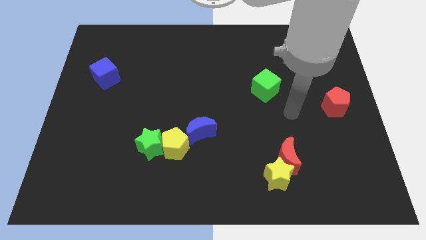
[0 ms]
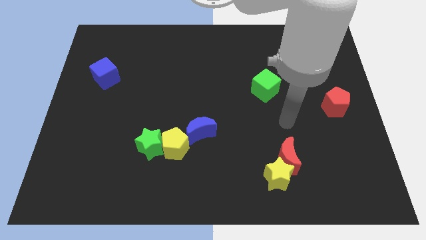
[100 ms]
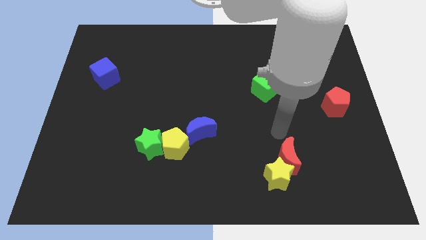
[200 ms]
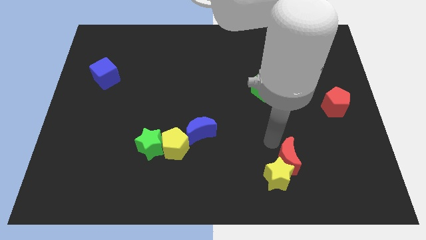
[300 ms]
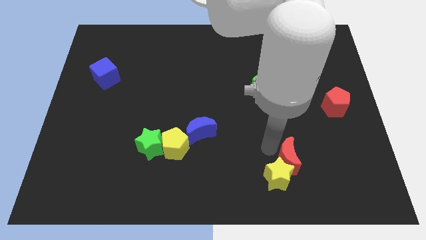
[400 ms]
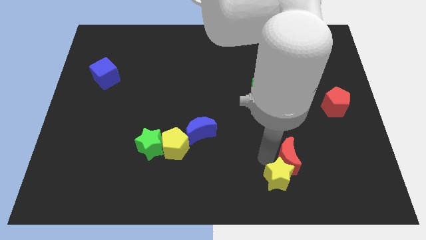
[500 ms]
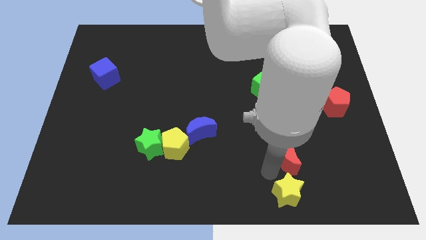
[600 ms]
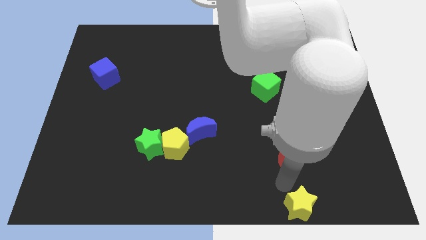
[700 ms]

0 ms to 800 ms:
move the red moon away from the yellow star

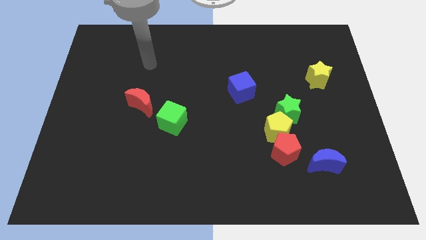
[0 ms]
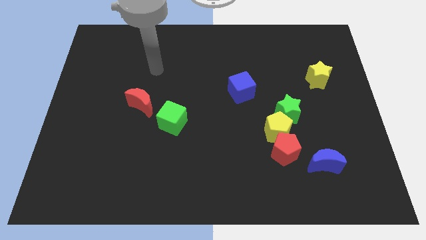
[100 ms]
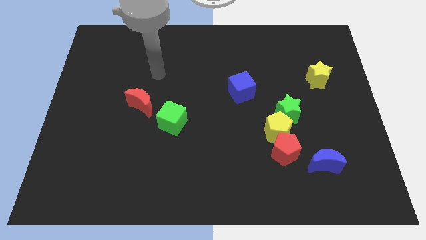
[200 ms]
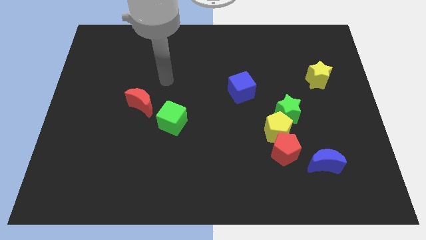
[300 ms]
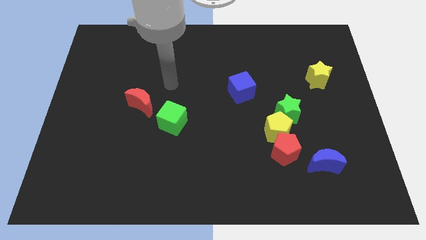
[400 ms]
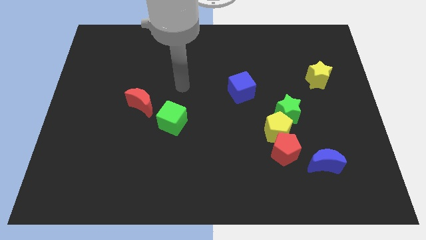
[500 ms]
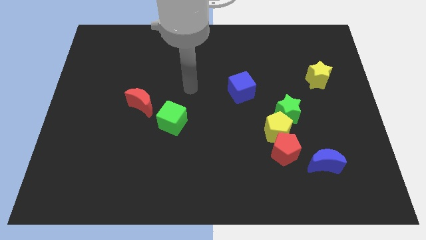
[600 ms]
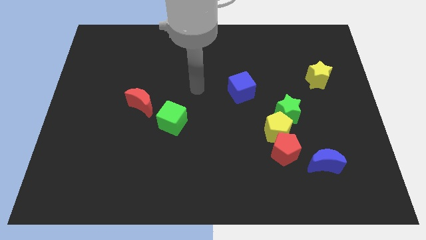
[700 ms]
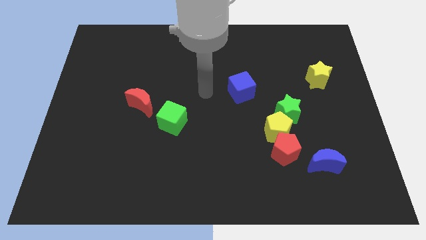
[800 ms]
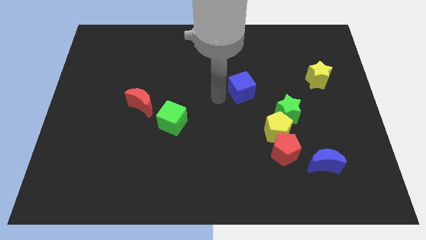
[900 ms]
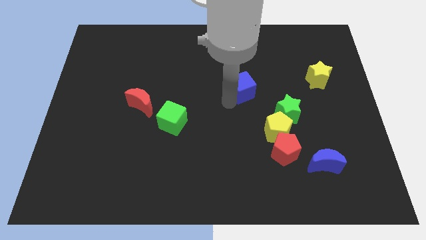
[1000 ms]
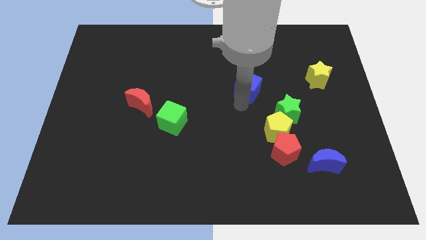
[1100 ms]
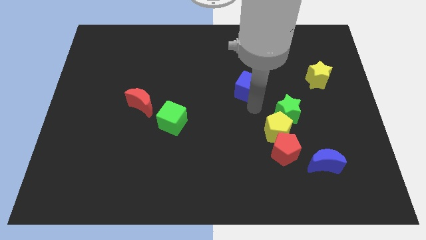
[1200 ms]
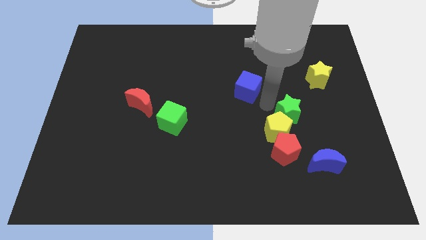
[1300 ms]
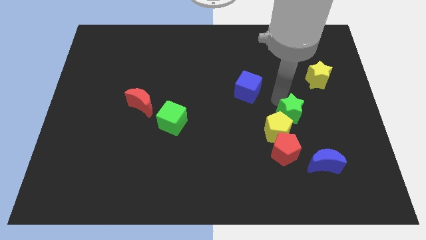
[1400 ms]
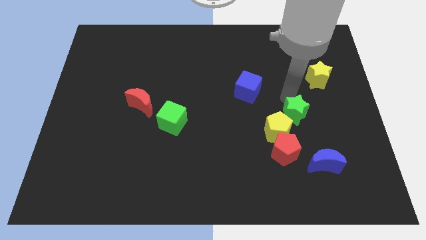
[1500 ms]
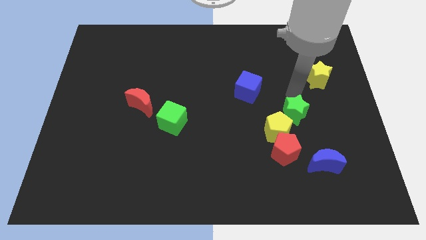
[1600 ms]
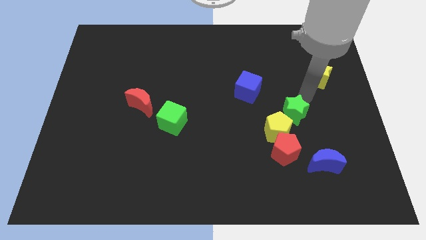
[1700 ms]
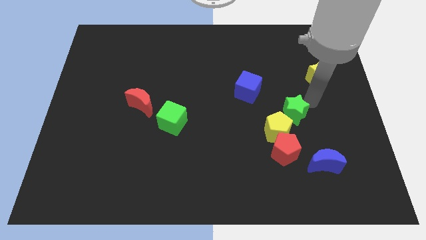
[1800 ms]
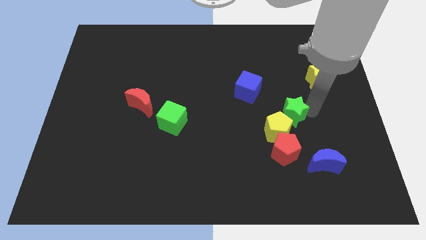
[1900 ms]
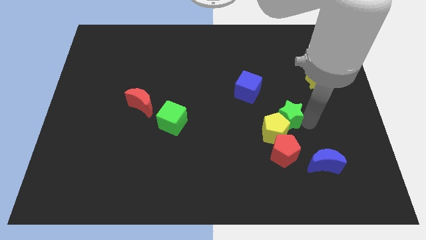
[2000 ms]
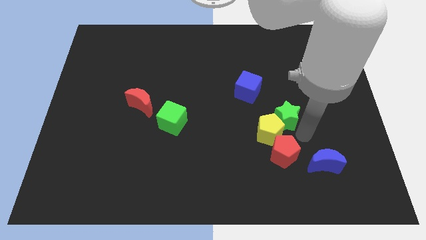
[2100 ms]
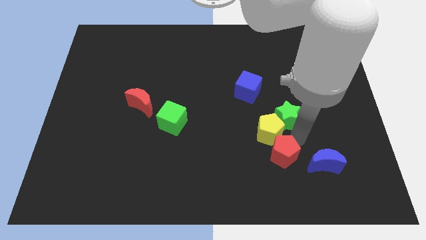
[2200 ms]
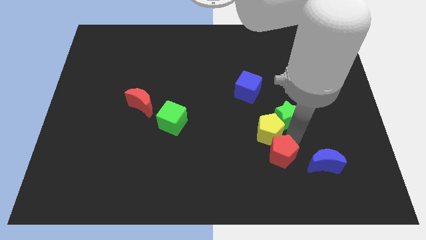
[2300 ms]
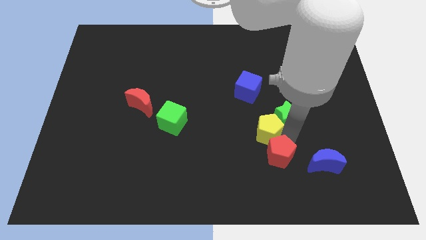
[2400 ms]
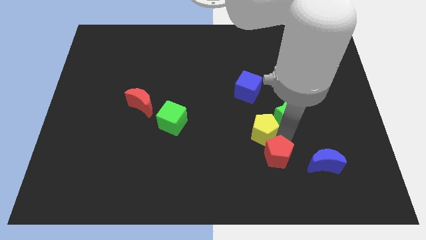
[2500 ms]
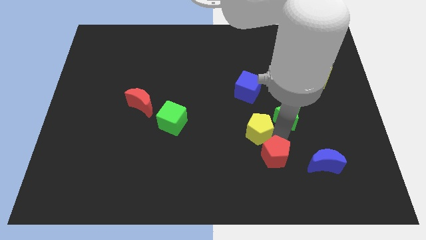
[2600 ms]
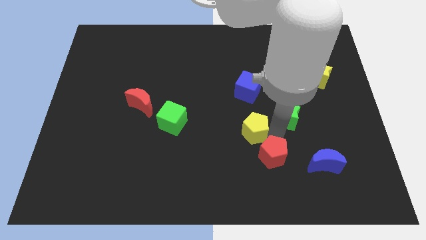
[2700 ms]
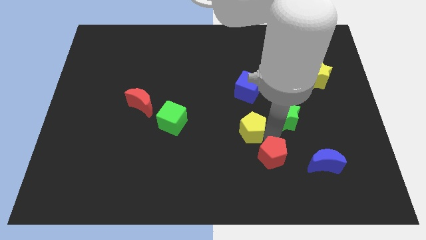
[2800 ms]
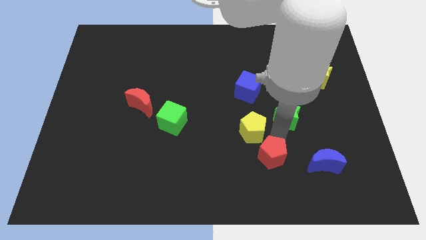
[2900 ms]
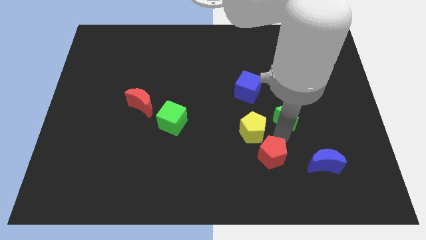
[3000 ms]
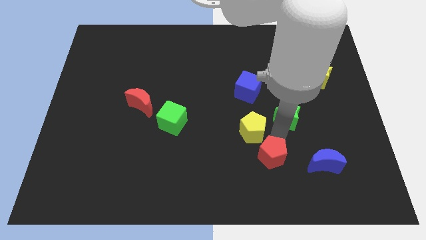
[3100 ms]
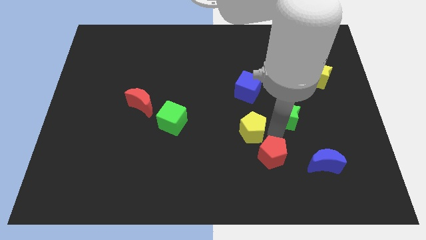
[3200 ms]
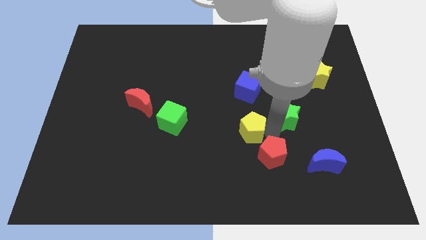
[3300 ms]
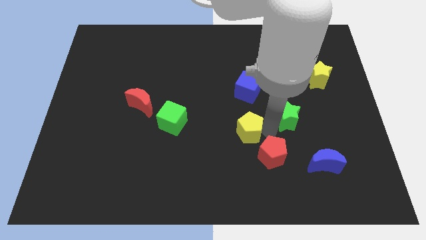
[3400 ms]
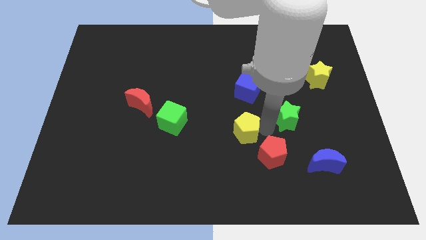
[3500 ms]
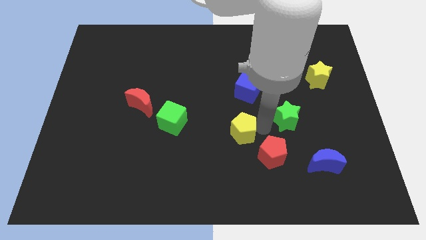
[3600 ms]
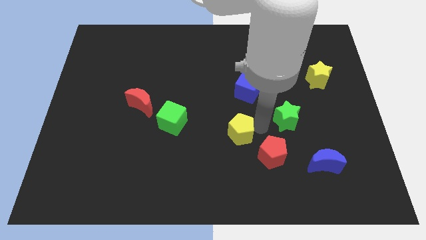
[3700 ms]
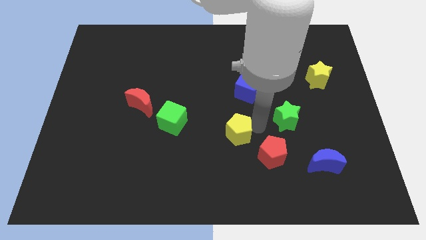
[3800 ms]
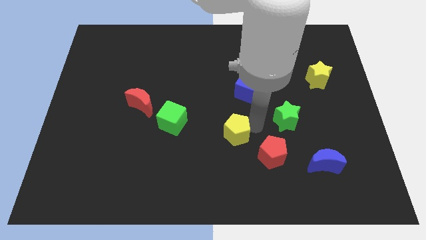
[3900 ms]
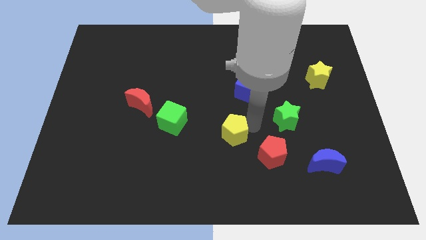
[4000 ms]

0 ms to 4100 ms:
move the yellow pentagon away from the red pentagon and green star

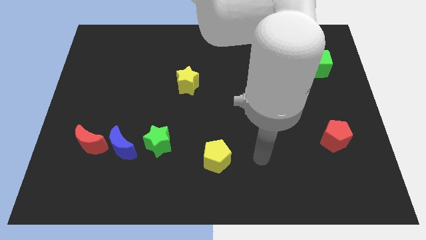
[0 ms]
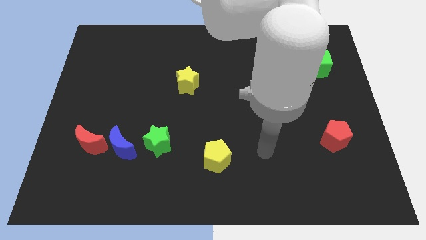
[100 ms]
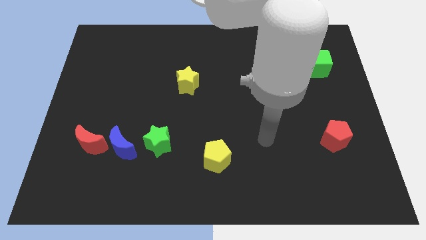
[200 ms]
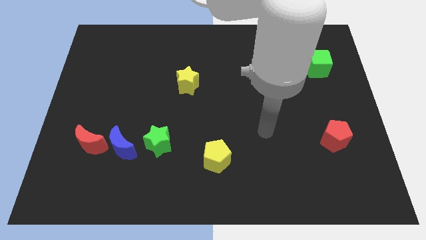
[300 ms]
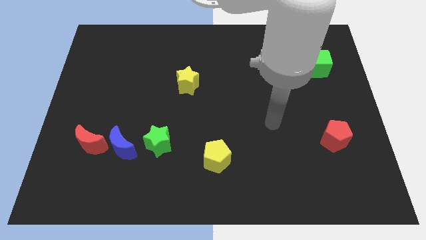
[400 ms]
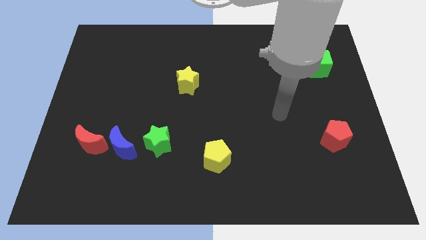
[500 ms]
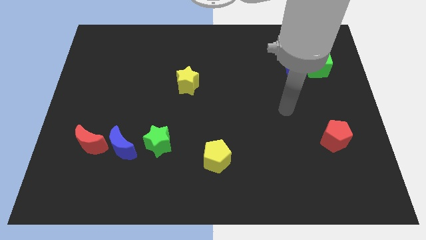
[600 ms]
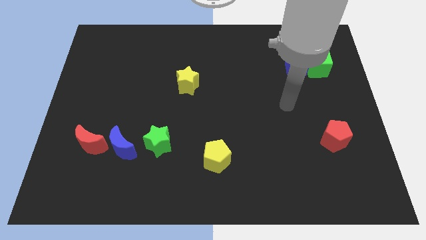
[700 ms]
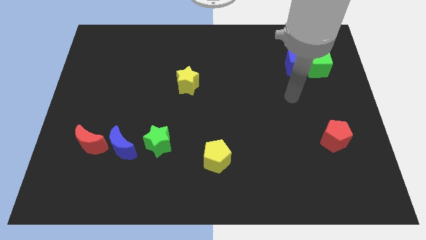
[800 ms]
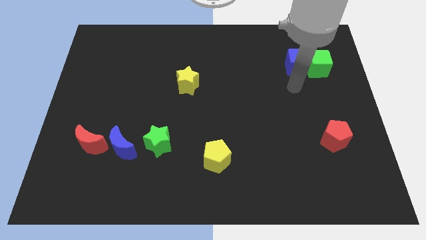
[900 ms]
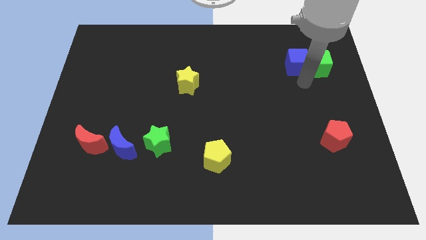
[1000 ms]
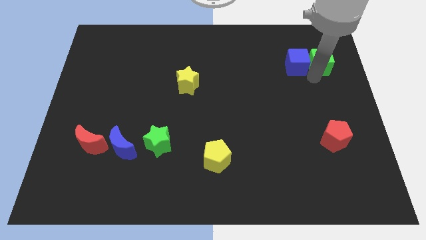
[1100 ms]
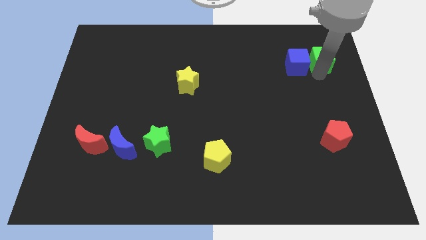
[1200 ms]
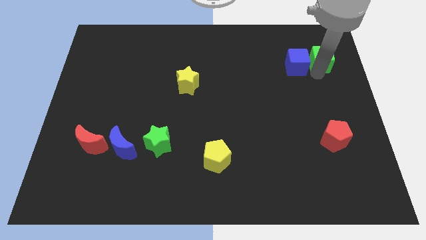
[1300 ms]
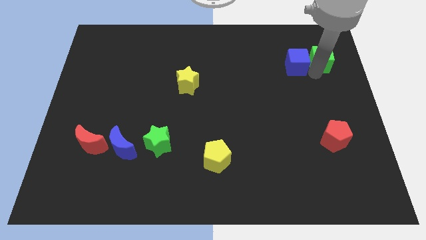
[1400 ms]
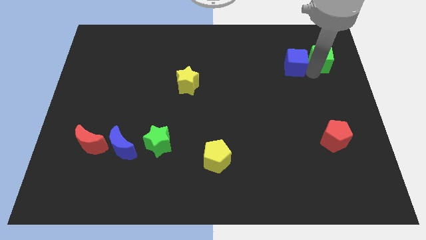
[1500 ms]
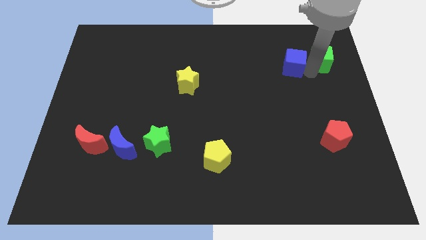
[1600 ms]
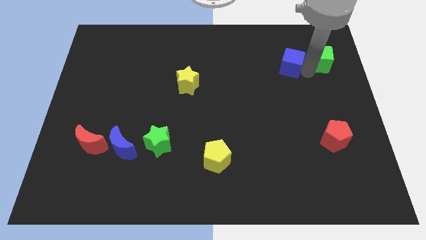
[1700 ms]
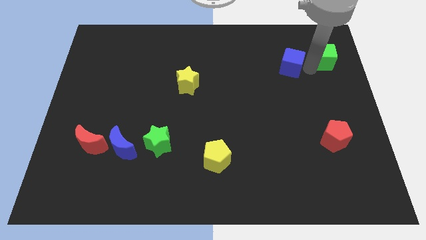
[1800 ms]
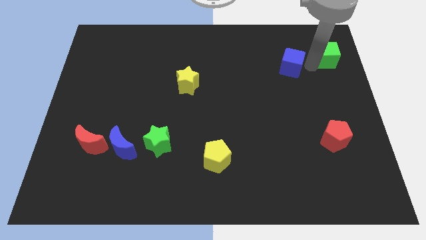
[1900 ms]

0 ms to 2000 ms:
pull the blue cube apart from the green cube

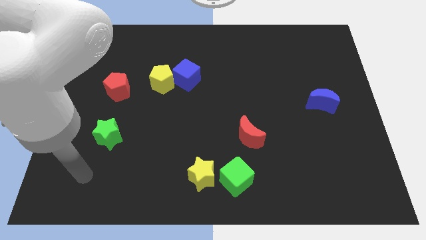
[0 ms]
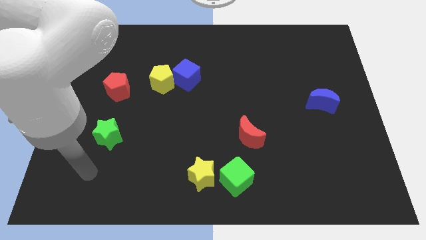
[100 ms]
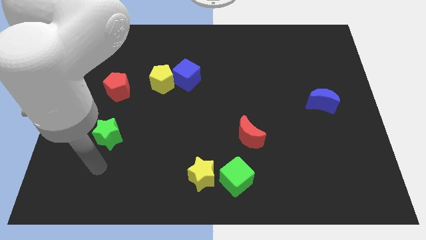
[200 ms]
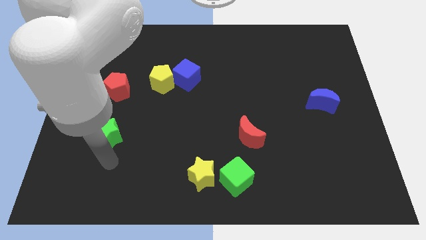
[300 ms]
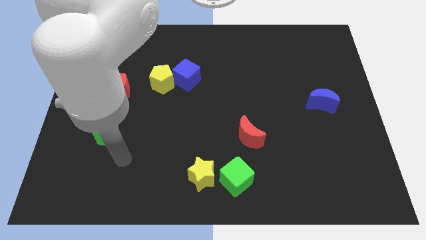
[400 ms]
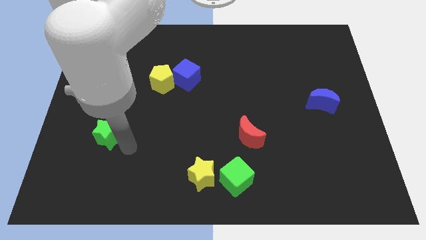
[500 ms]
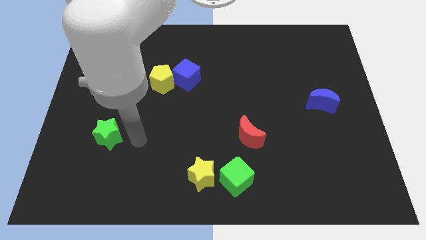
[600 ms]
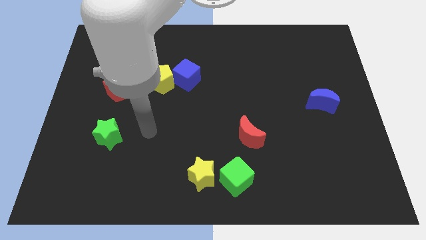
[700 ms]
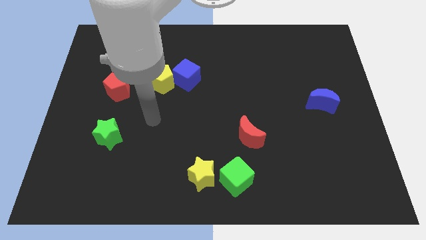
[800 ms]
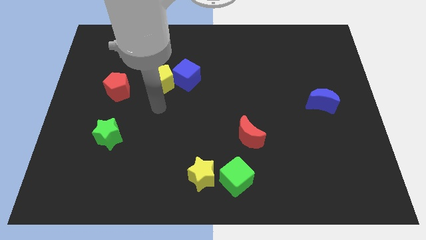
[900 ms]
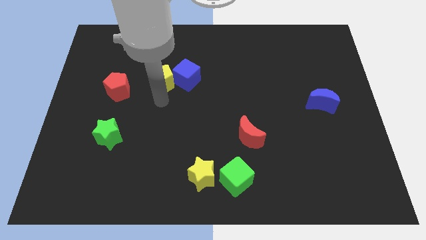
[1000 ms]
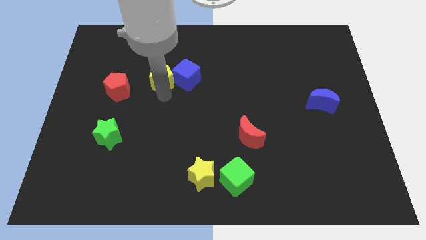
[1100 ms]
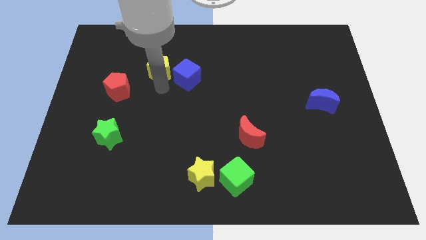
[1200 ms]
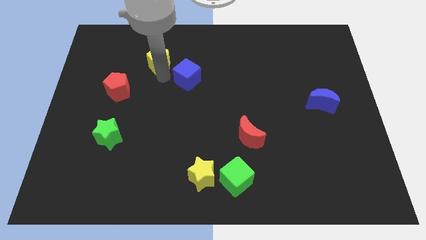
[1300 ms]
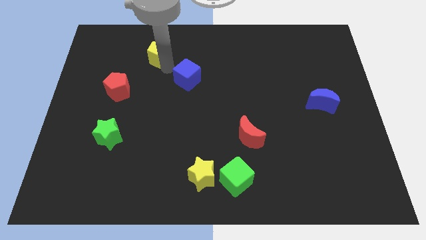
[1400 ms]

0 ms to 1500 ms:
separate the blue cube from the yellow pentagon

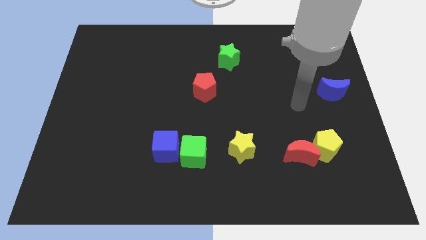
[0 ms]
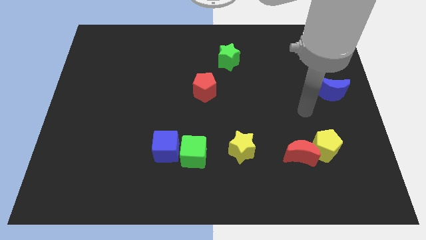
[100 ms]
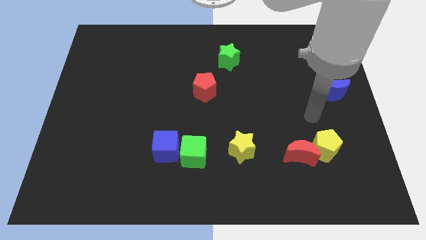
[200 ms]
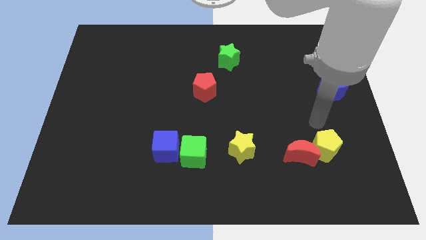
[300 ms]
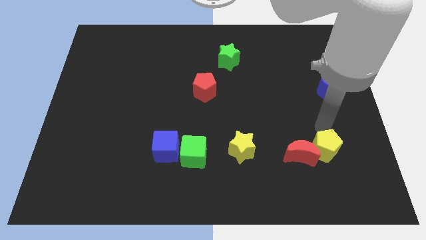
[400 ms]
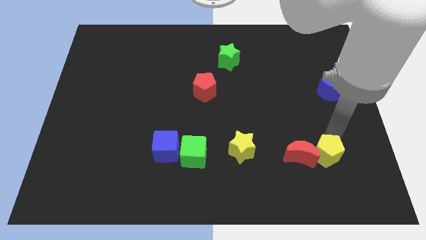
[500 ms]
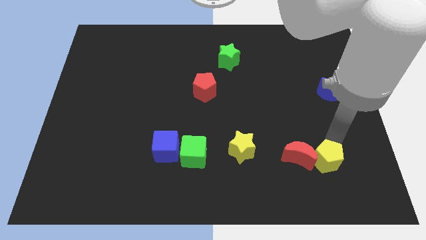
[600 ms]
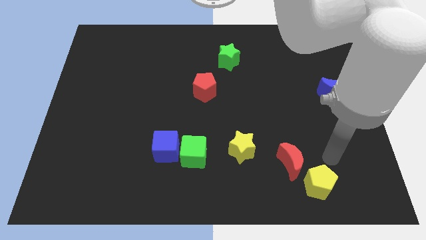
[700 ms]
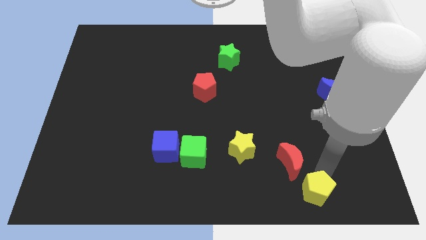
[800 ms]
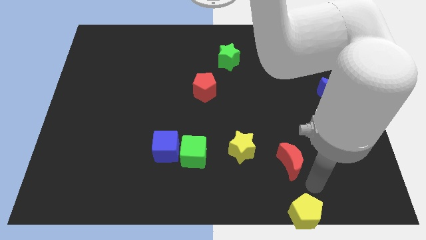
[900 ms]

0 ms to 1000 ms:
separate the red moon from the yellow pentagon
